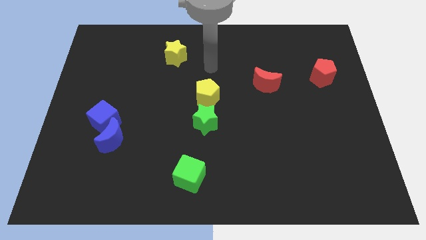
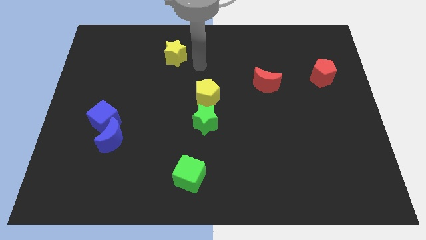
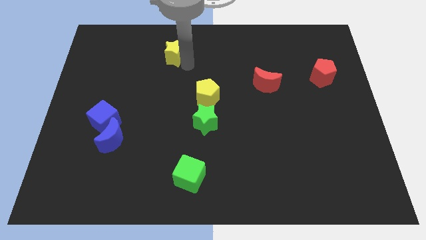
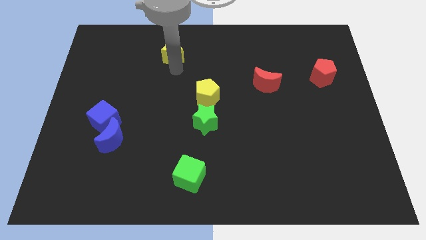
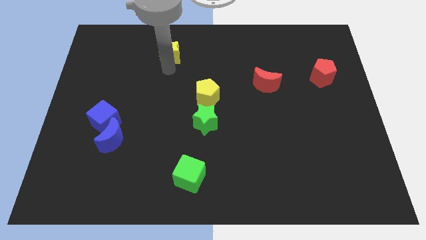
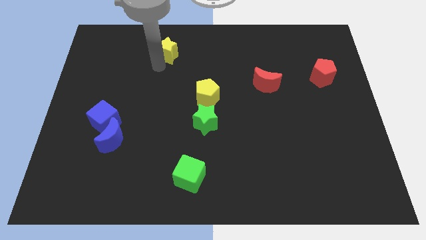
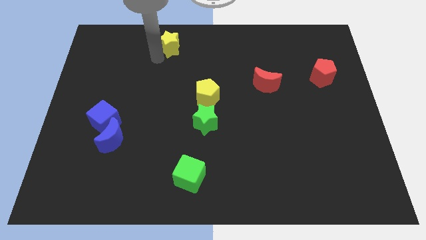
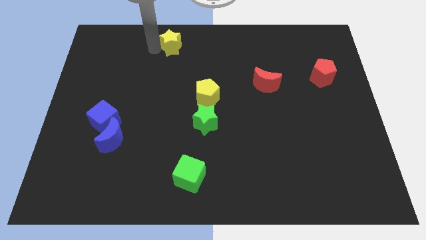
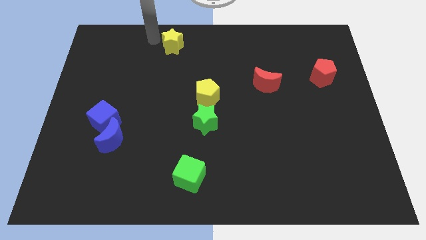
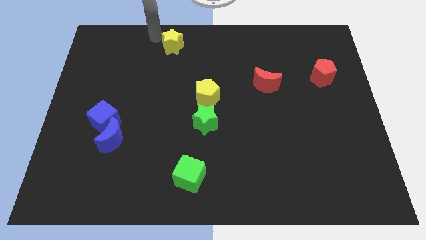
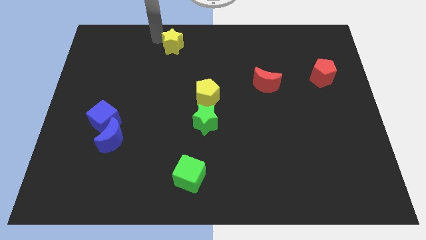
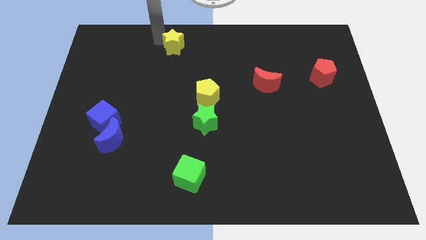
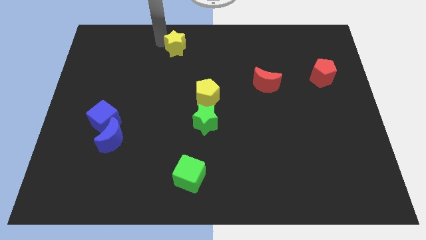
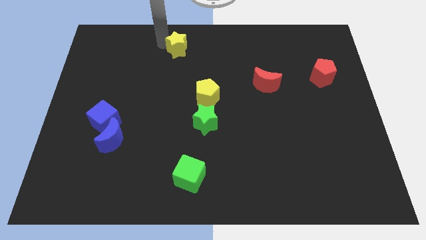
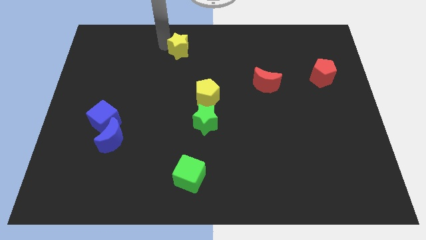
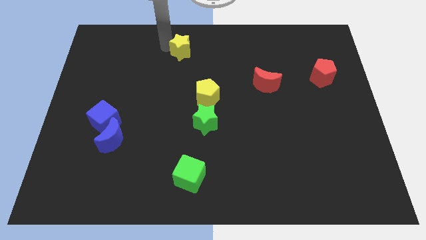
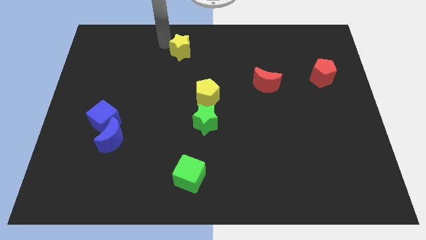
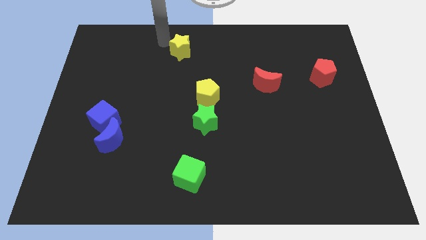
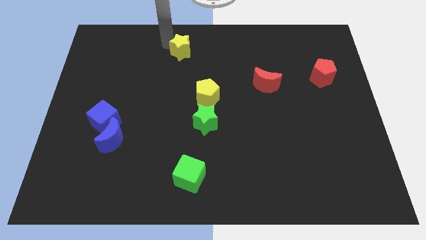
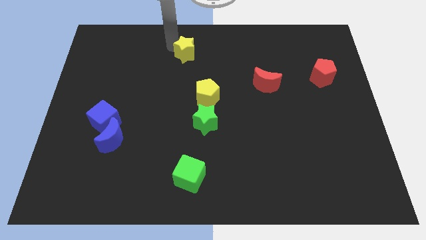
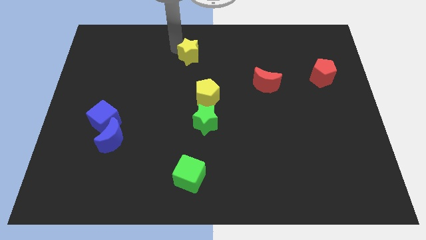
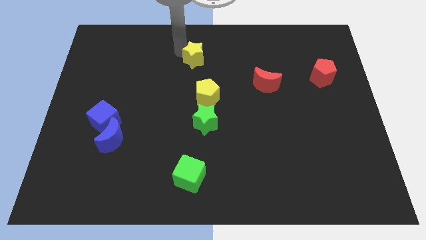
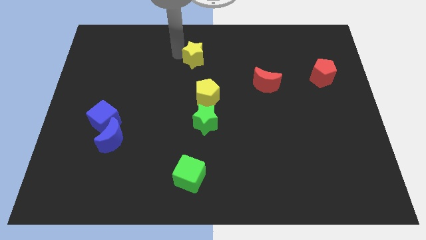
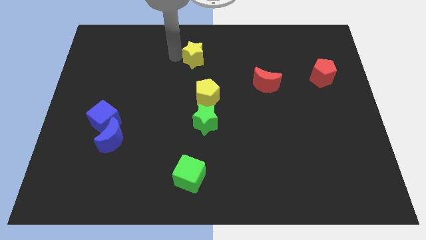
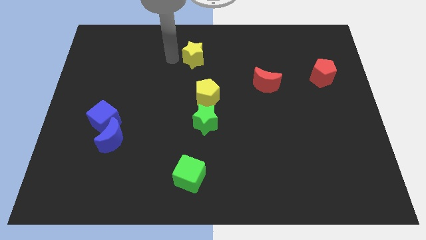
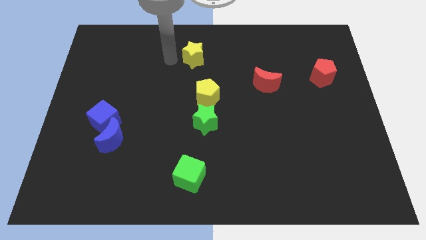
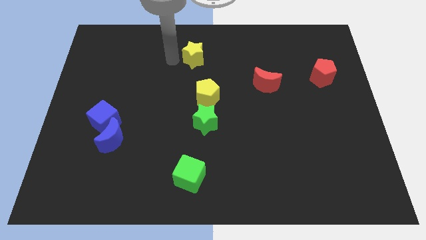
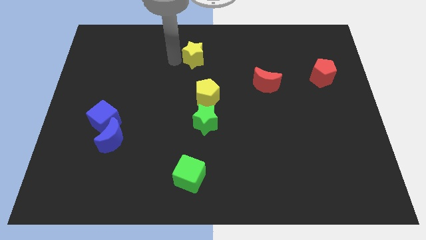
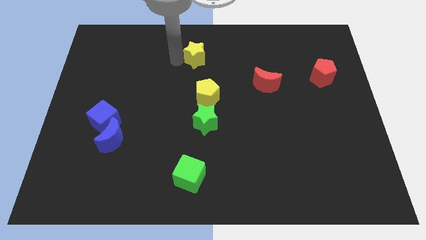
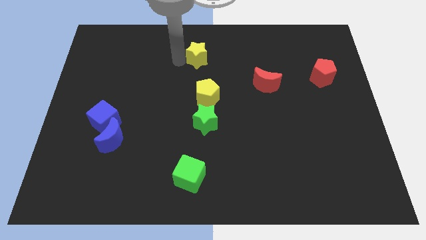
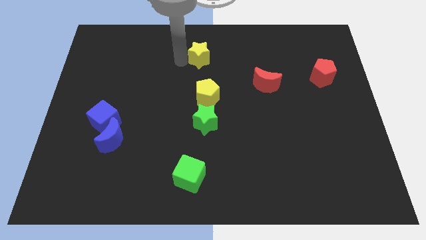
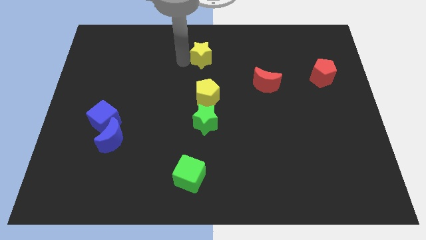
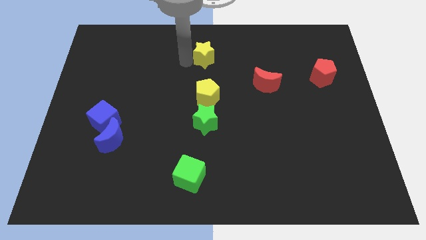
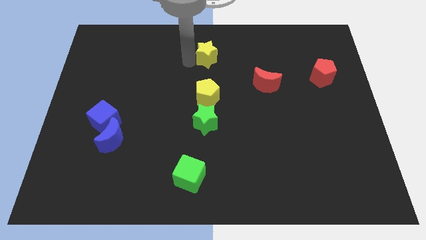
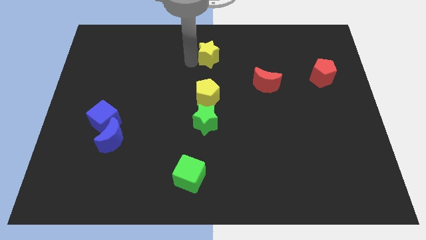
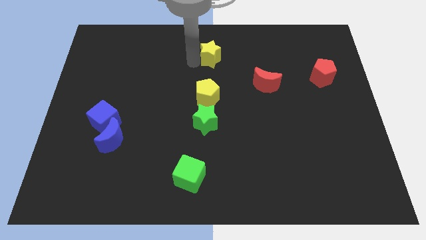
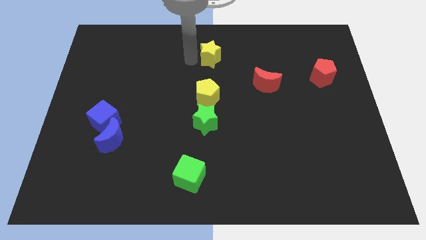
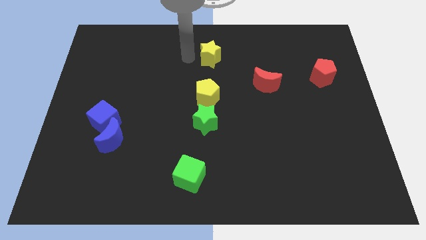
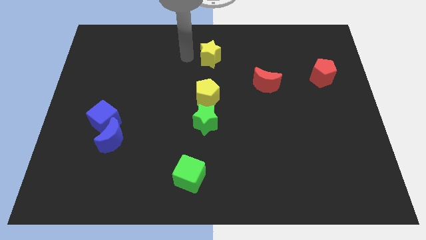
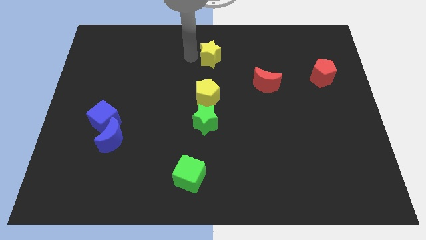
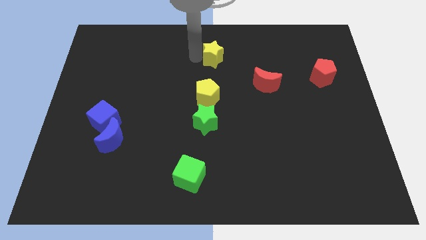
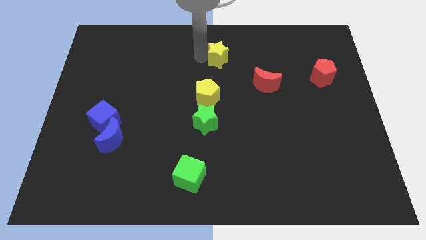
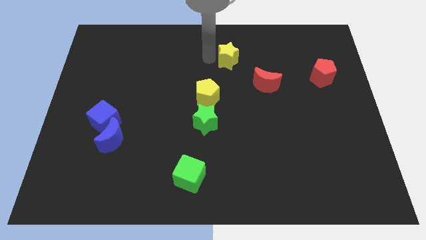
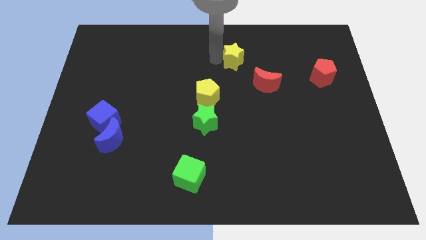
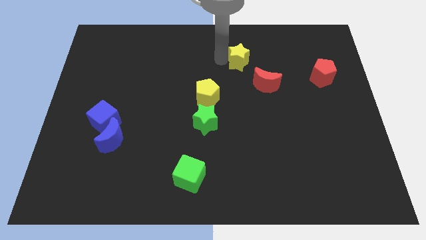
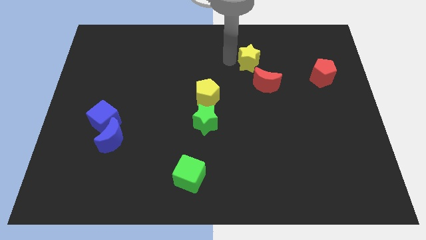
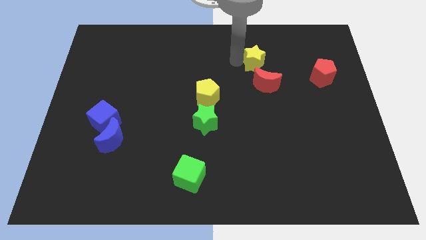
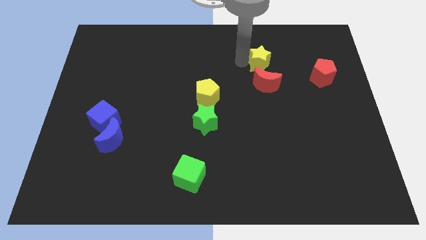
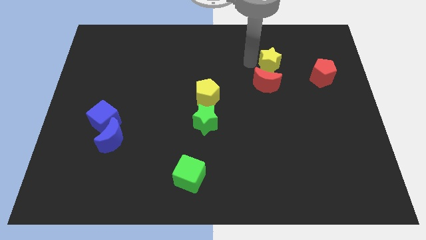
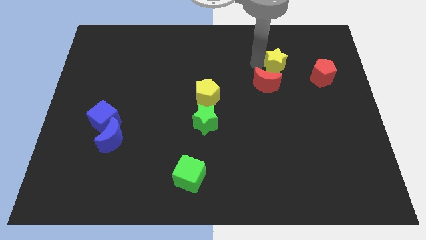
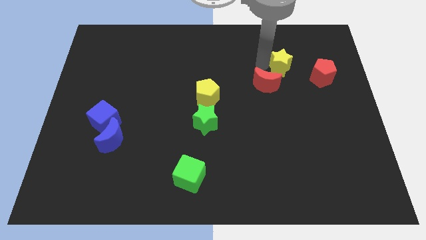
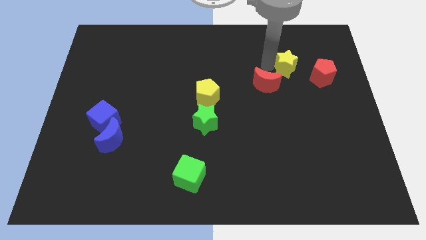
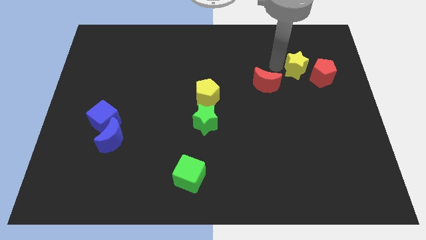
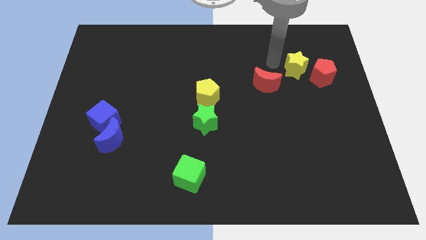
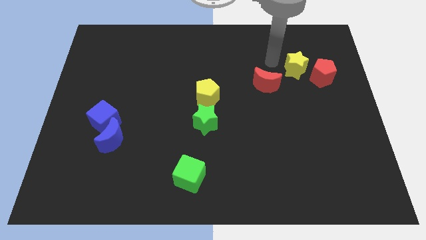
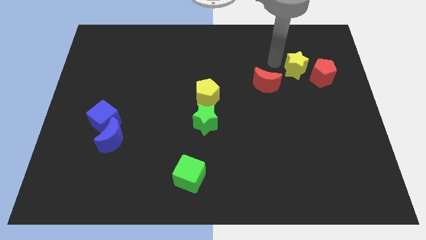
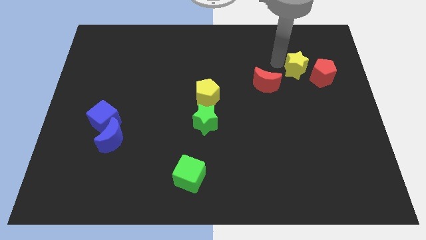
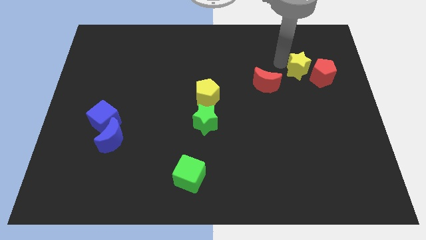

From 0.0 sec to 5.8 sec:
slide the yellow star to the red pentagon

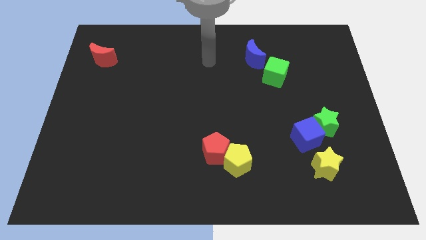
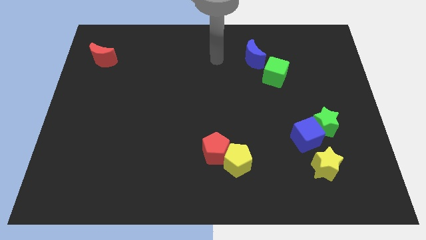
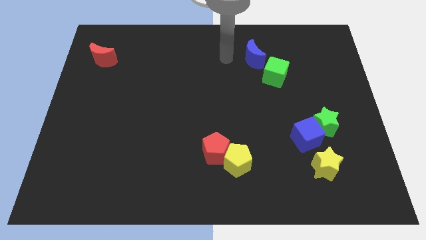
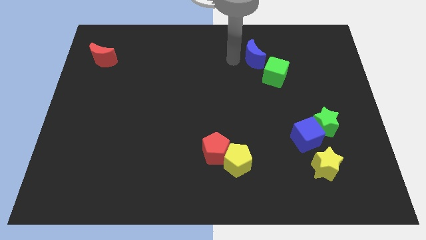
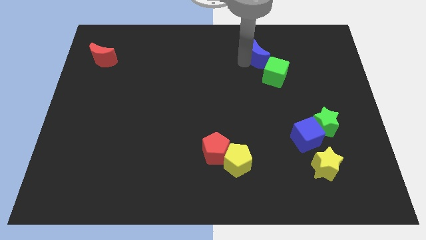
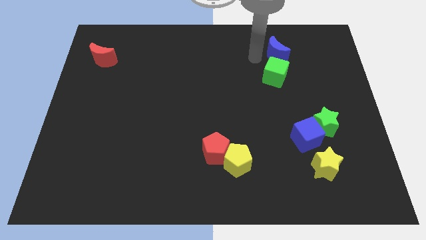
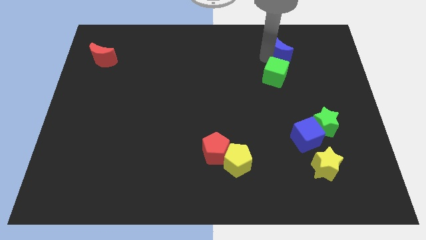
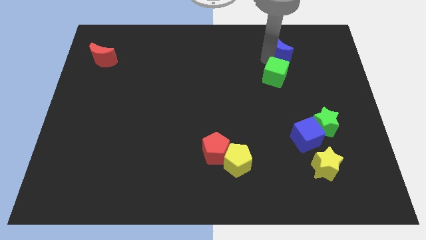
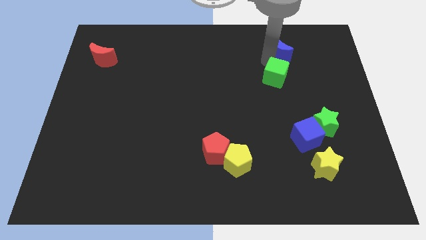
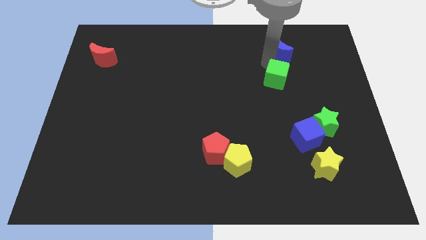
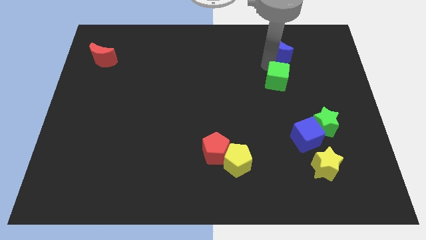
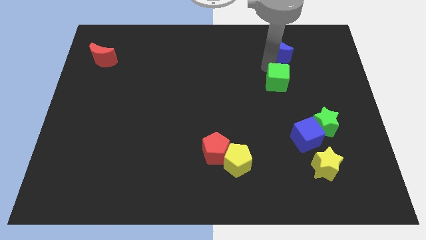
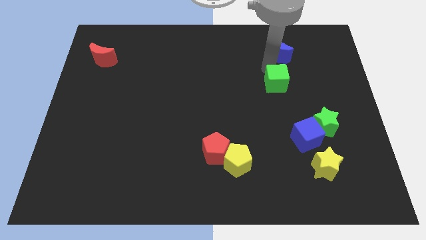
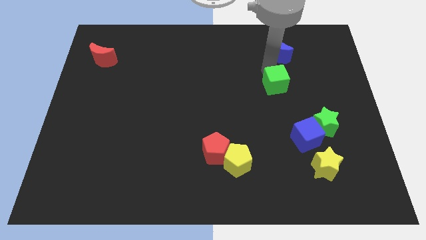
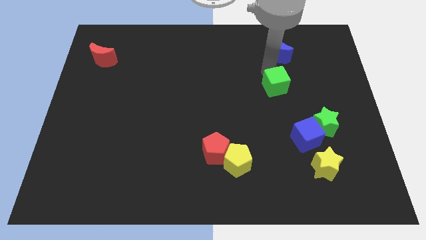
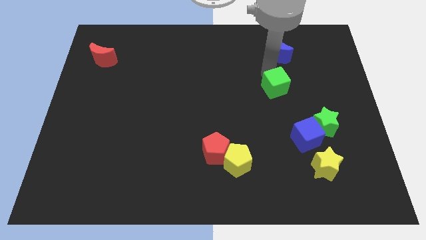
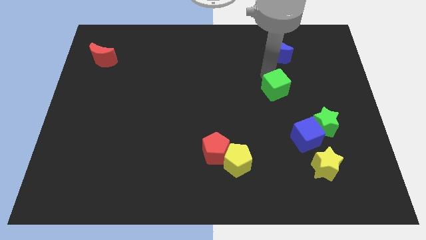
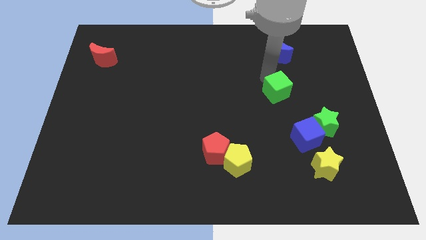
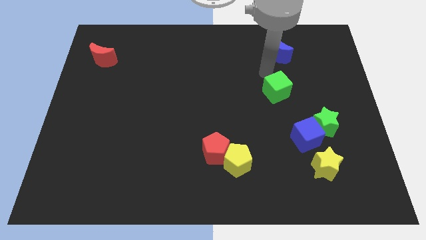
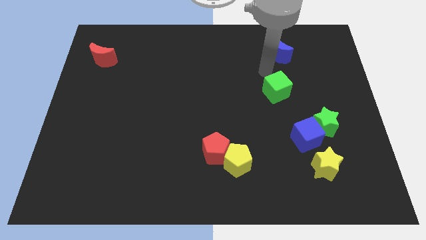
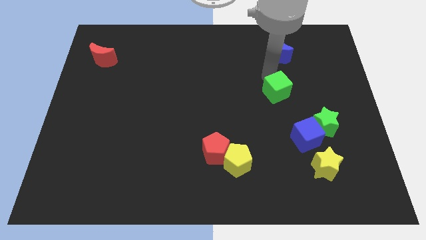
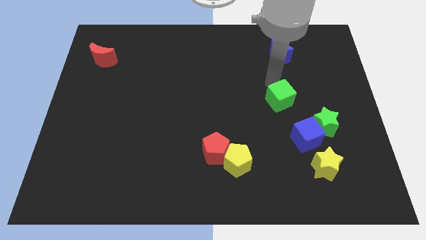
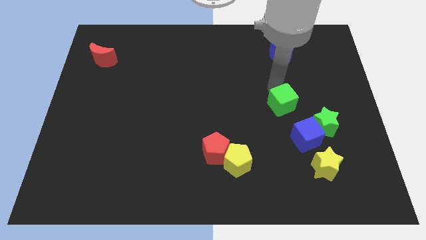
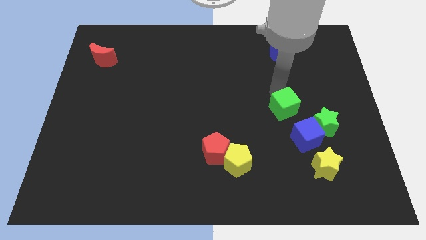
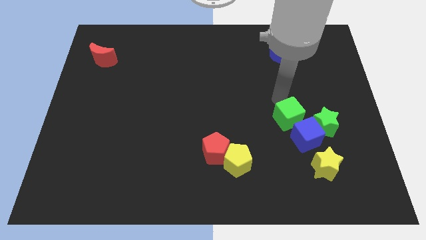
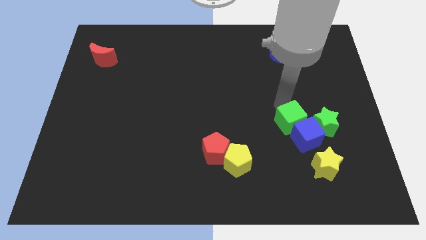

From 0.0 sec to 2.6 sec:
move the green cube to the blue cube
